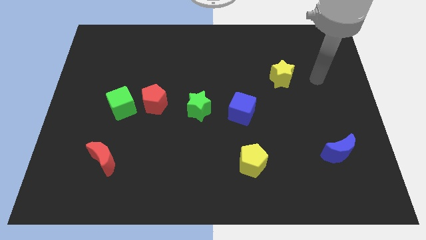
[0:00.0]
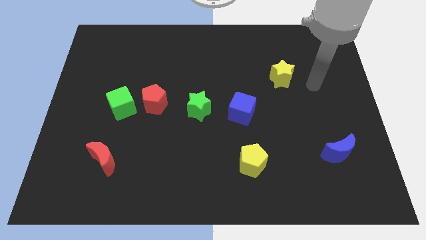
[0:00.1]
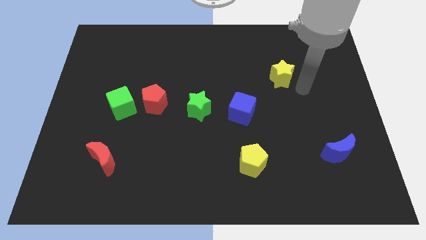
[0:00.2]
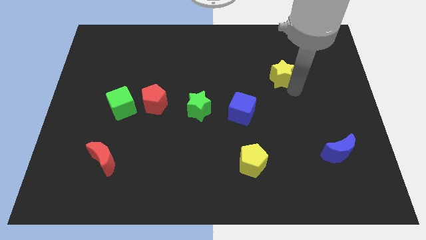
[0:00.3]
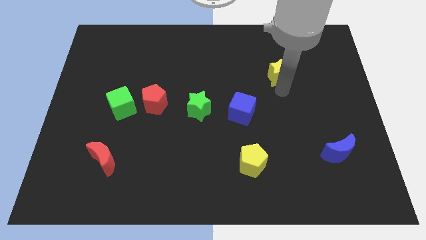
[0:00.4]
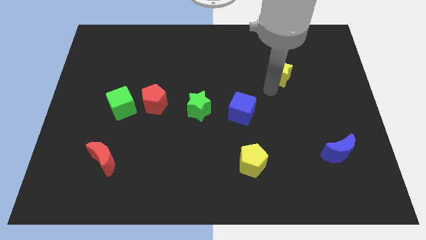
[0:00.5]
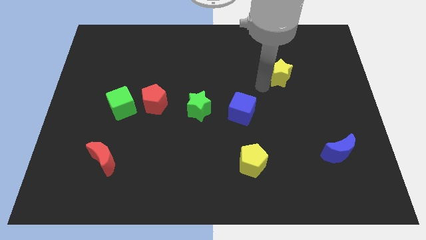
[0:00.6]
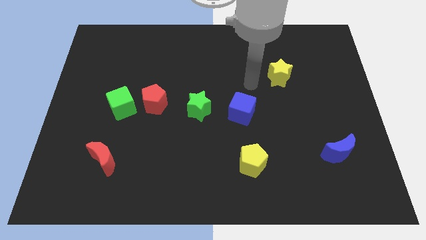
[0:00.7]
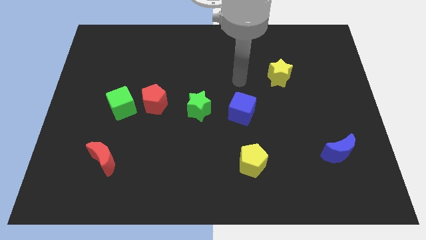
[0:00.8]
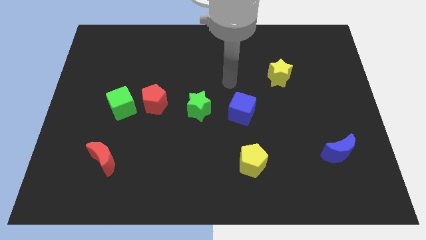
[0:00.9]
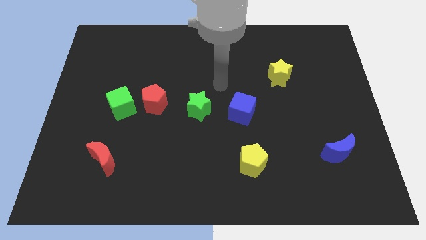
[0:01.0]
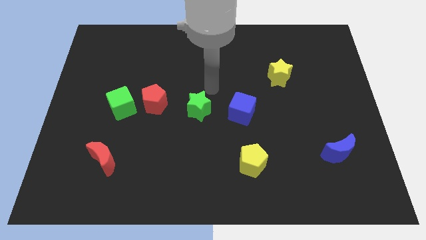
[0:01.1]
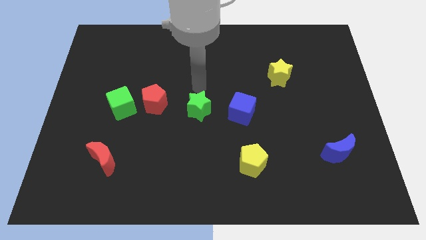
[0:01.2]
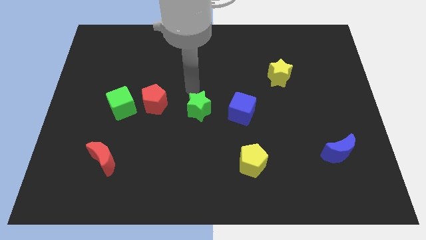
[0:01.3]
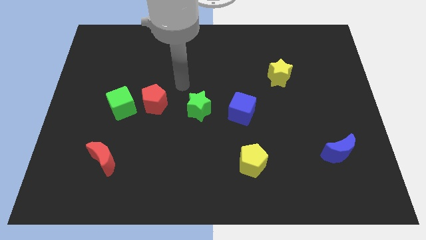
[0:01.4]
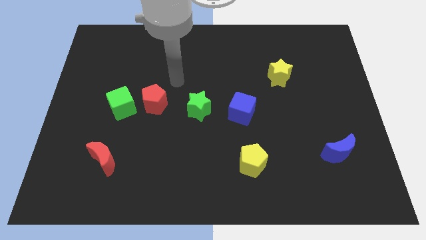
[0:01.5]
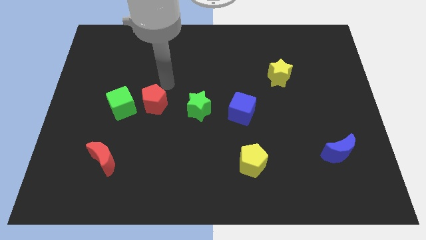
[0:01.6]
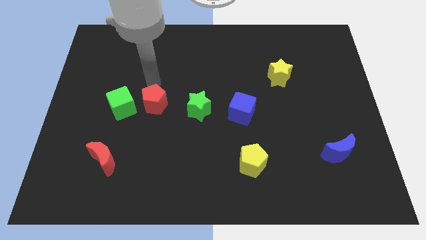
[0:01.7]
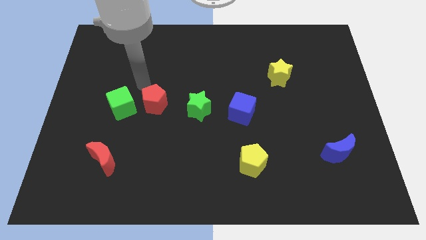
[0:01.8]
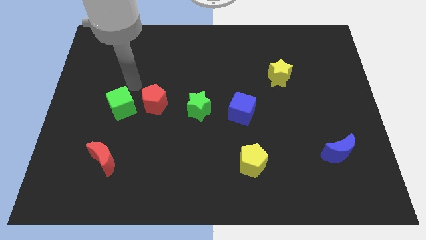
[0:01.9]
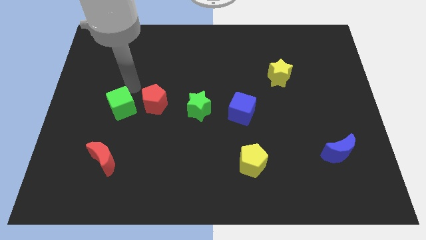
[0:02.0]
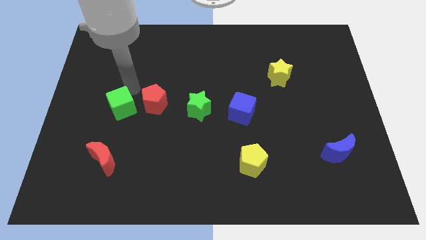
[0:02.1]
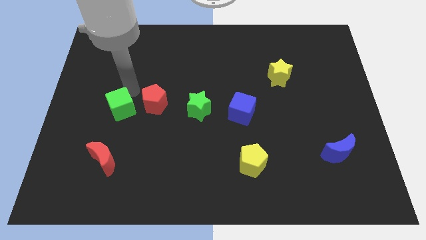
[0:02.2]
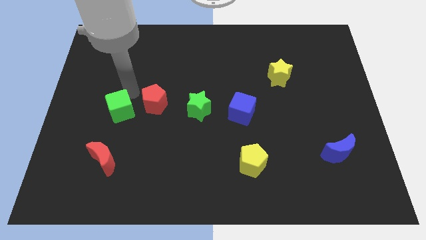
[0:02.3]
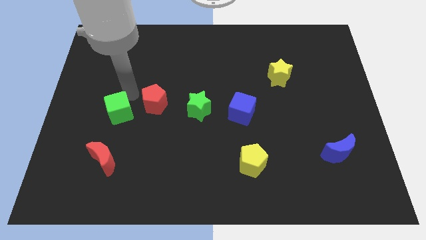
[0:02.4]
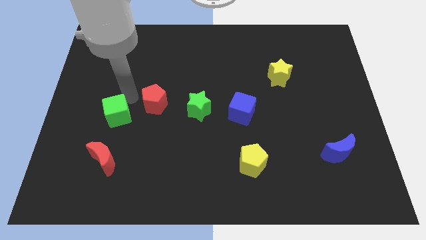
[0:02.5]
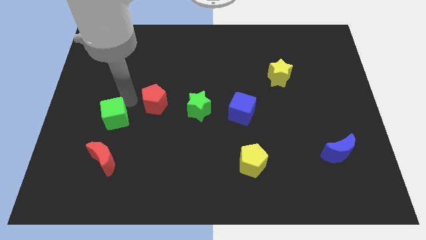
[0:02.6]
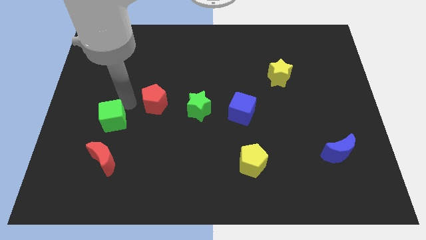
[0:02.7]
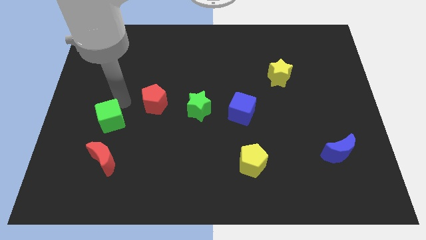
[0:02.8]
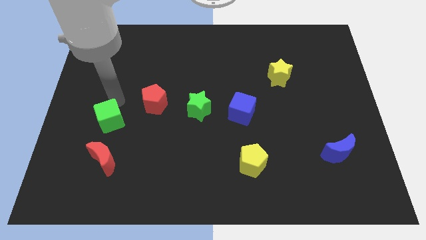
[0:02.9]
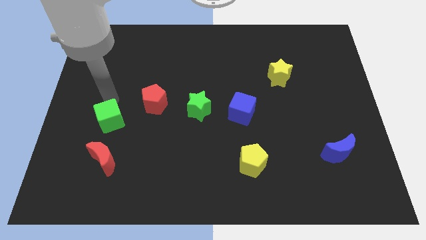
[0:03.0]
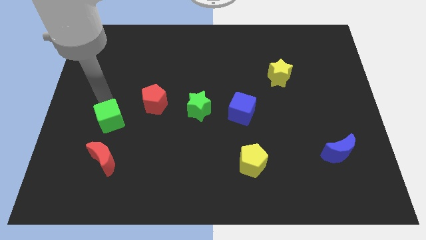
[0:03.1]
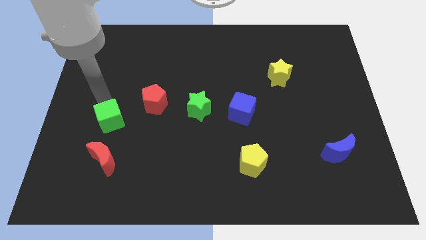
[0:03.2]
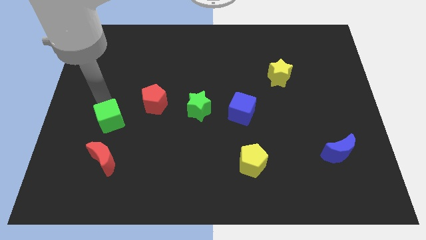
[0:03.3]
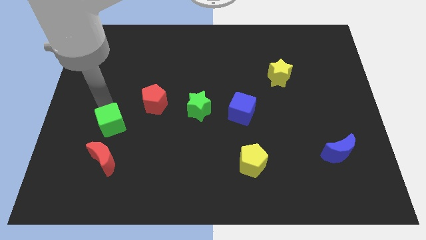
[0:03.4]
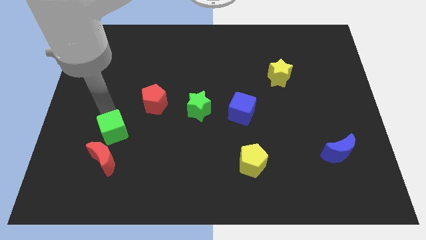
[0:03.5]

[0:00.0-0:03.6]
move the green cube down slightly

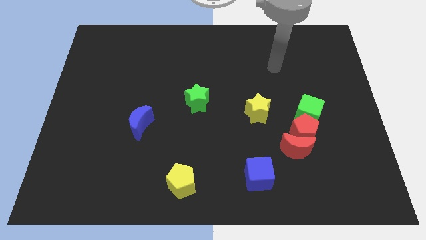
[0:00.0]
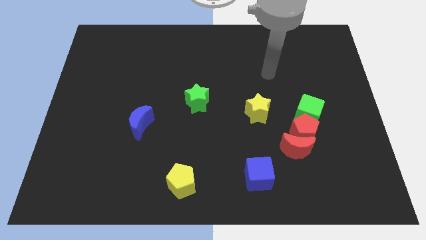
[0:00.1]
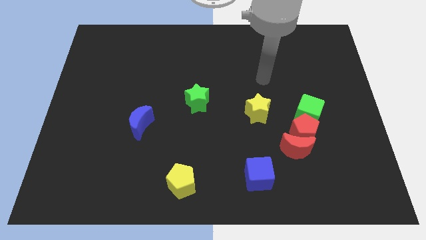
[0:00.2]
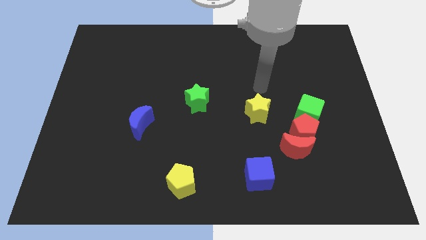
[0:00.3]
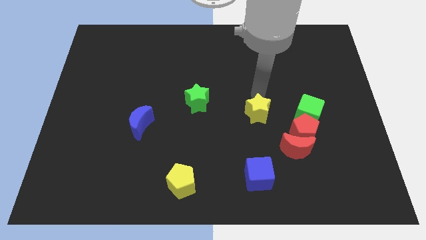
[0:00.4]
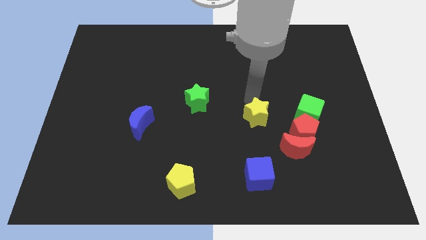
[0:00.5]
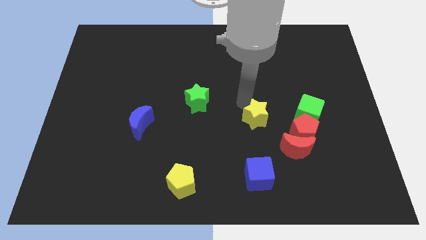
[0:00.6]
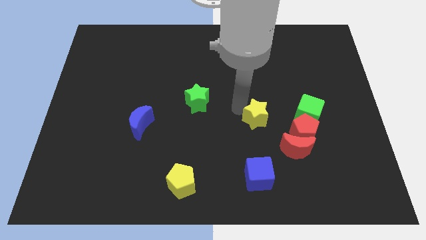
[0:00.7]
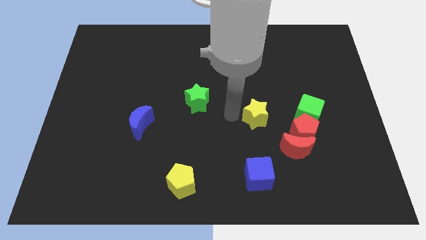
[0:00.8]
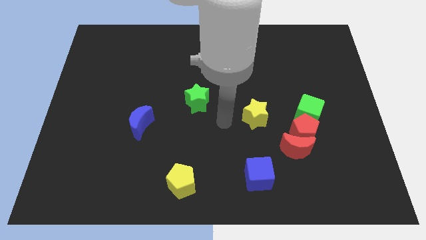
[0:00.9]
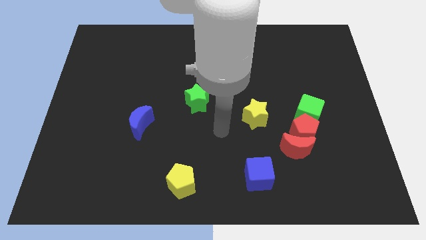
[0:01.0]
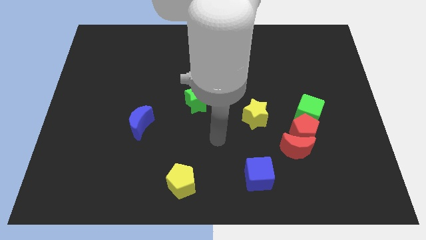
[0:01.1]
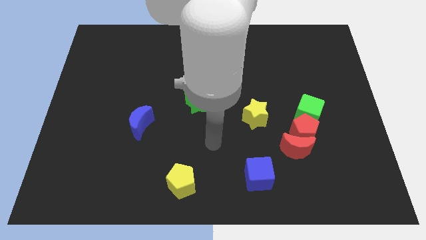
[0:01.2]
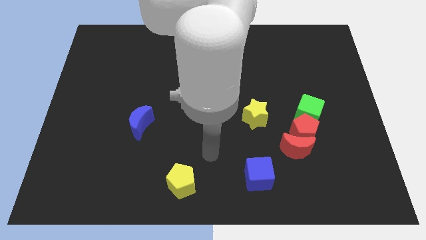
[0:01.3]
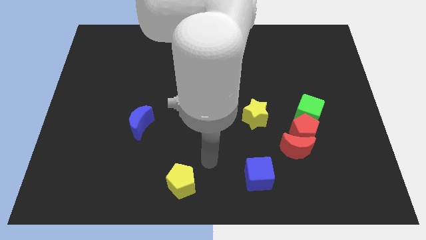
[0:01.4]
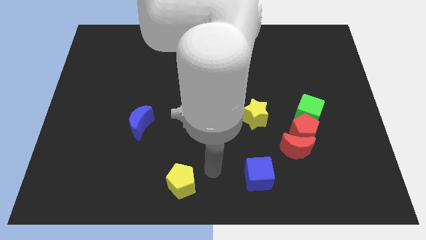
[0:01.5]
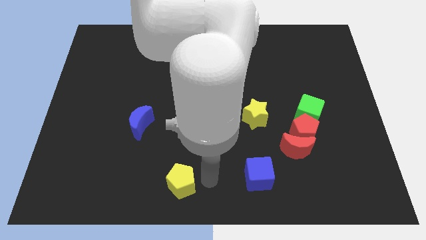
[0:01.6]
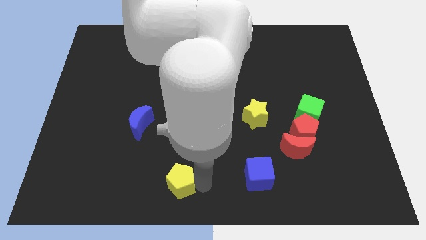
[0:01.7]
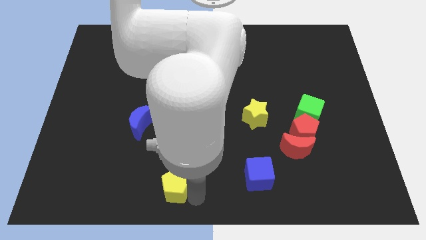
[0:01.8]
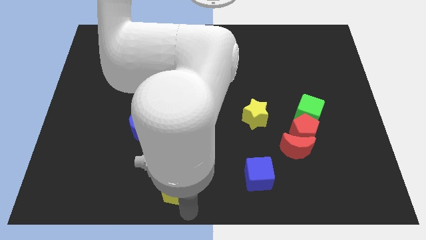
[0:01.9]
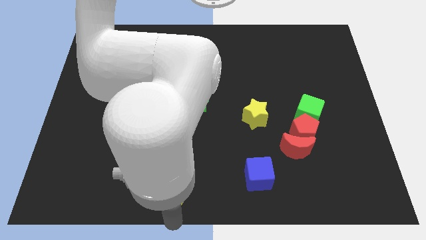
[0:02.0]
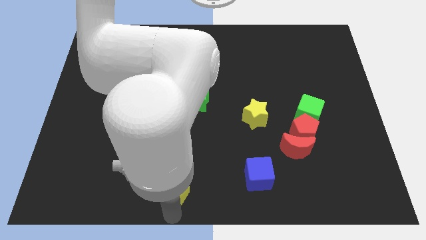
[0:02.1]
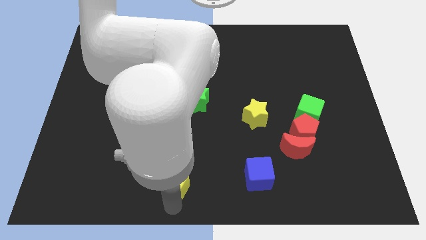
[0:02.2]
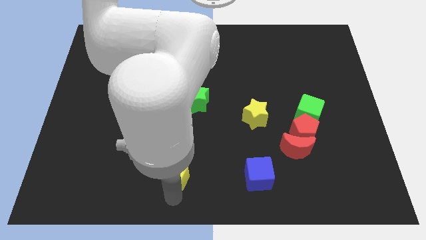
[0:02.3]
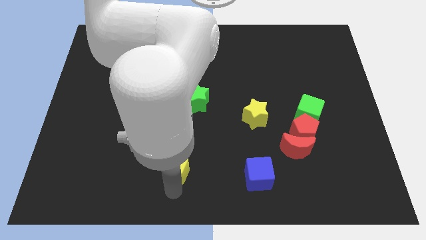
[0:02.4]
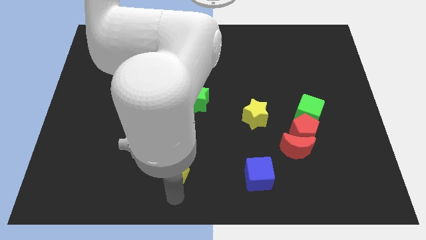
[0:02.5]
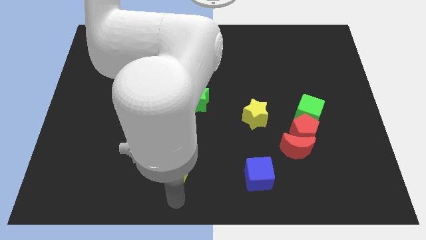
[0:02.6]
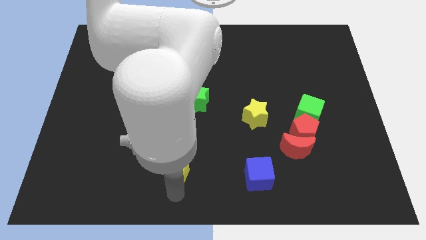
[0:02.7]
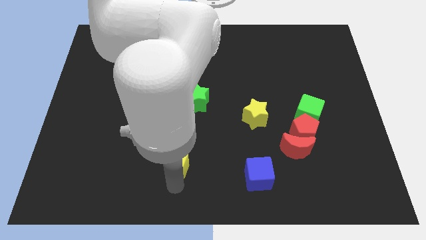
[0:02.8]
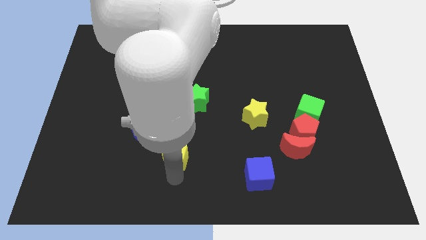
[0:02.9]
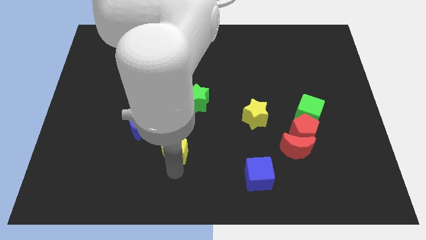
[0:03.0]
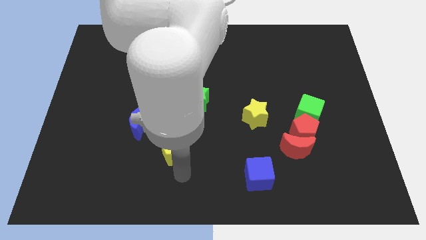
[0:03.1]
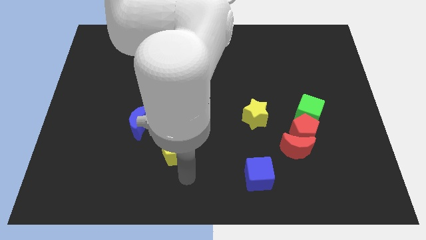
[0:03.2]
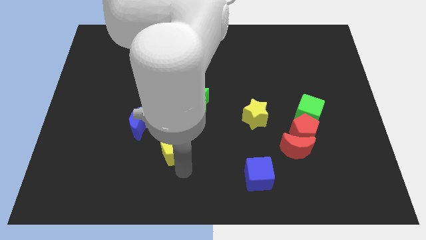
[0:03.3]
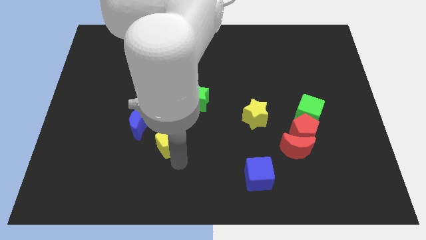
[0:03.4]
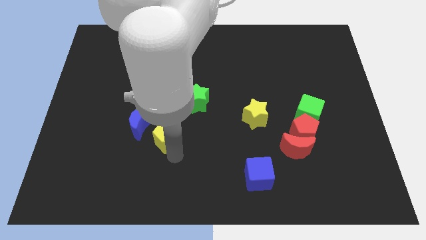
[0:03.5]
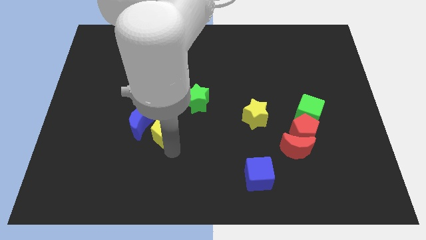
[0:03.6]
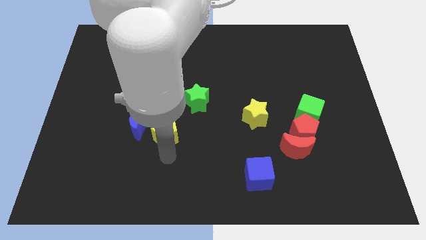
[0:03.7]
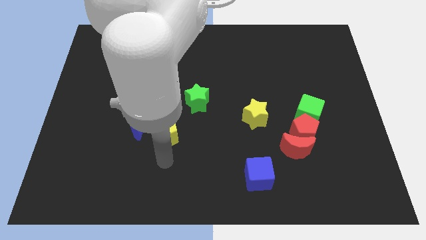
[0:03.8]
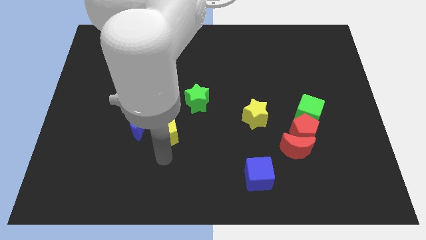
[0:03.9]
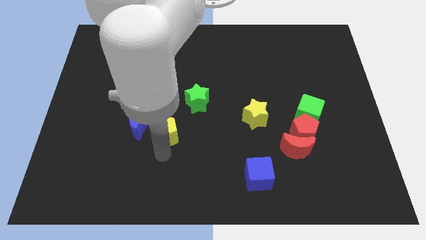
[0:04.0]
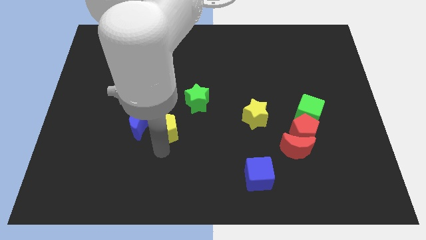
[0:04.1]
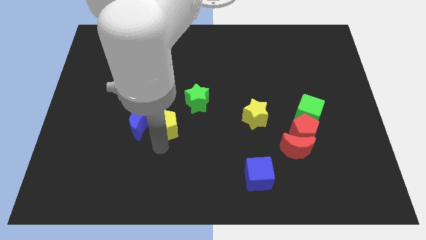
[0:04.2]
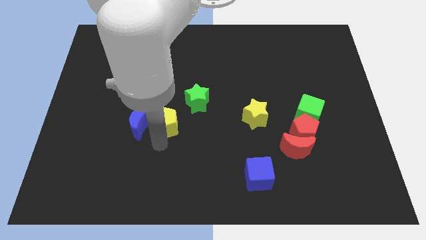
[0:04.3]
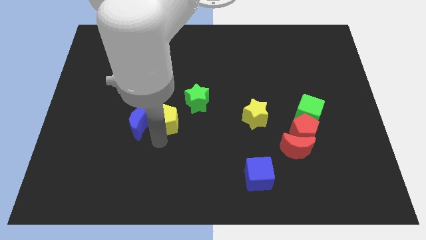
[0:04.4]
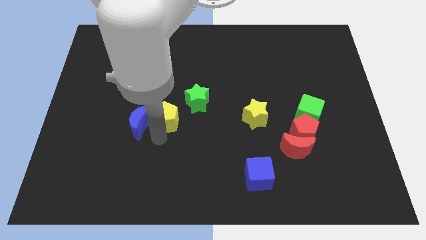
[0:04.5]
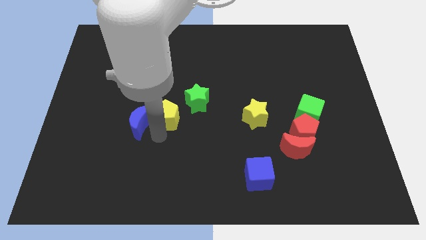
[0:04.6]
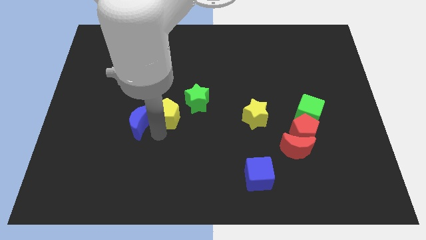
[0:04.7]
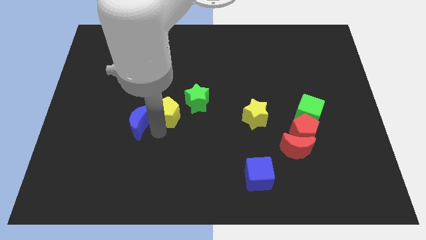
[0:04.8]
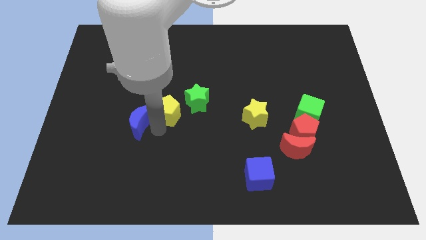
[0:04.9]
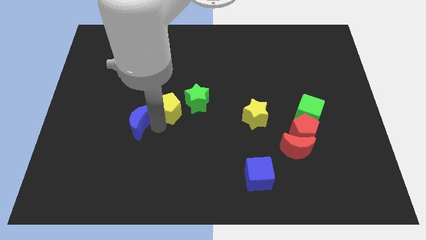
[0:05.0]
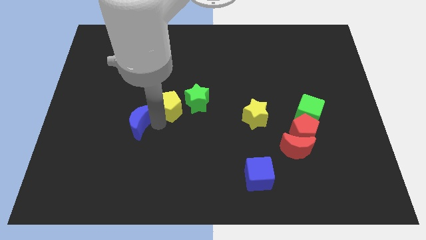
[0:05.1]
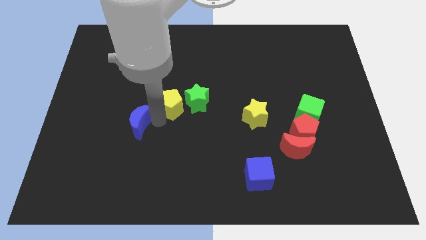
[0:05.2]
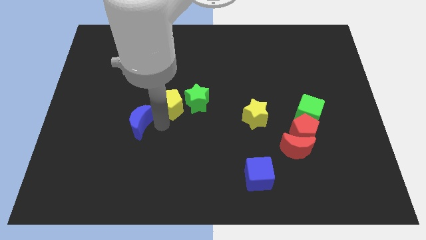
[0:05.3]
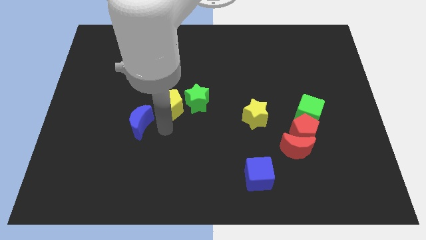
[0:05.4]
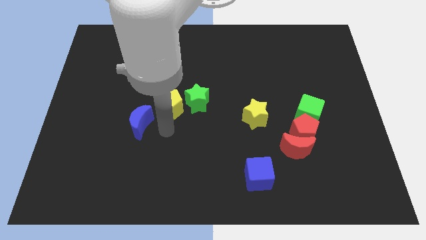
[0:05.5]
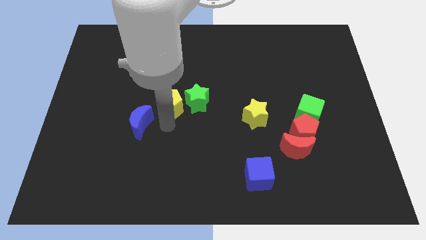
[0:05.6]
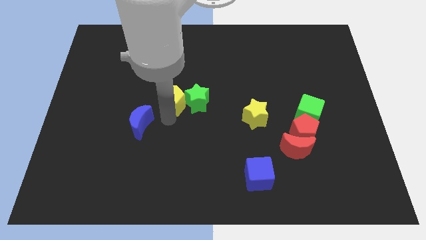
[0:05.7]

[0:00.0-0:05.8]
slide the yellow pentagon upwards
